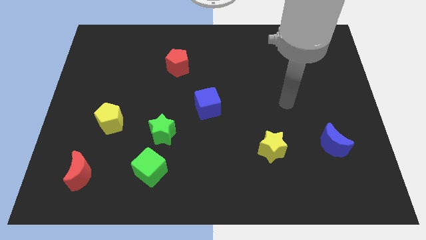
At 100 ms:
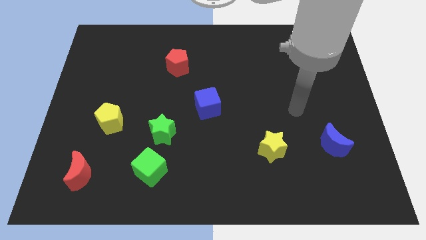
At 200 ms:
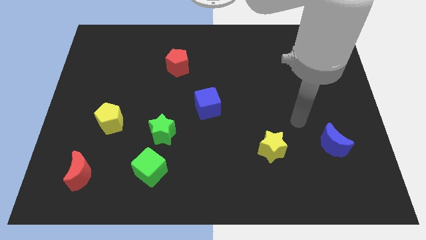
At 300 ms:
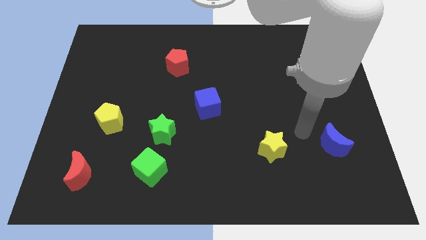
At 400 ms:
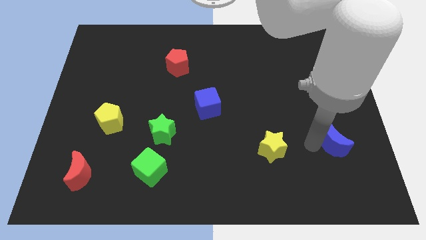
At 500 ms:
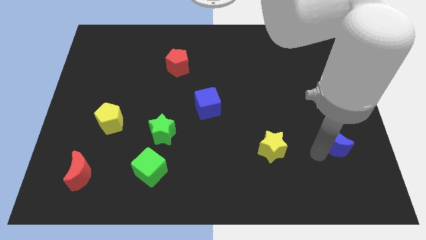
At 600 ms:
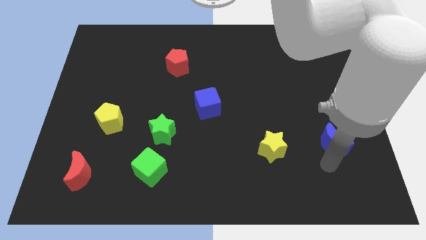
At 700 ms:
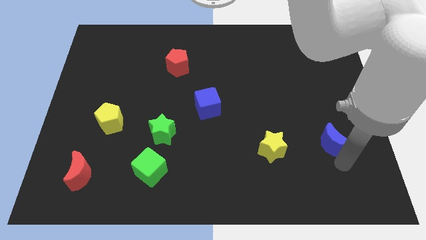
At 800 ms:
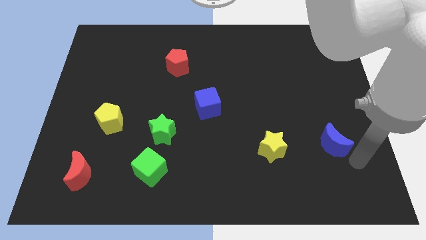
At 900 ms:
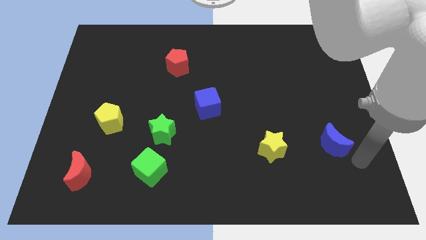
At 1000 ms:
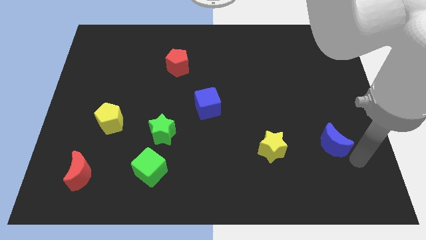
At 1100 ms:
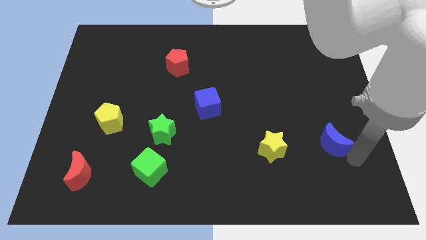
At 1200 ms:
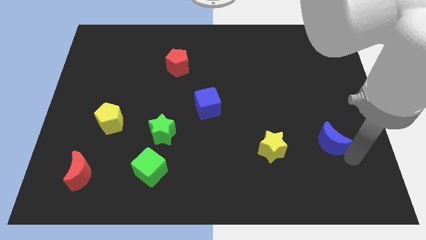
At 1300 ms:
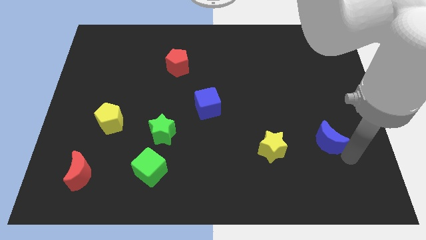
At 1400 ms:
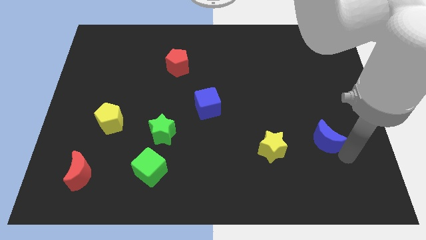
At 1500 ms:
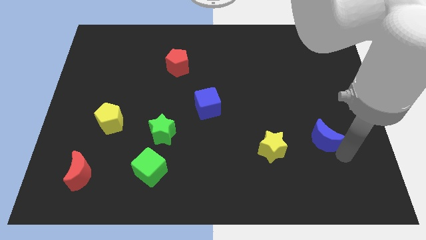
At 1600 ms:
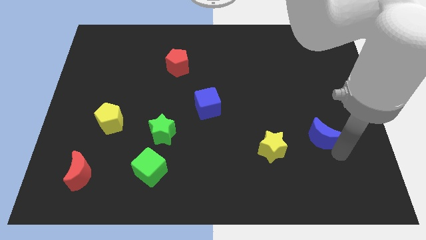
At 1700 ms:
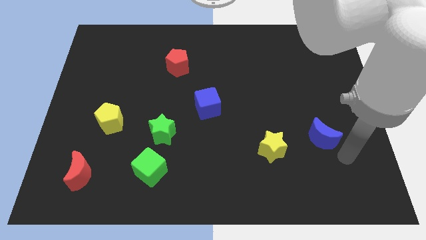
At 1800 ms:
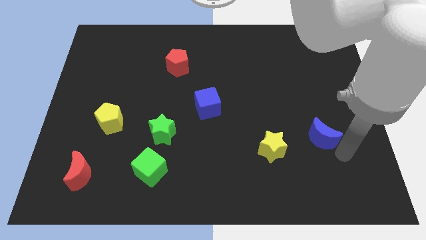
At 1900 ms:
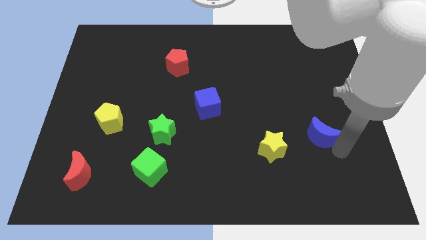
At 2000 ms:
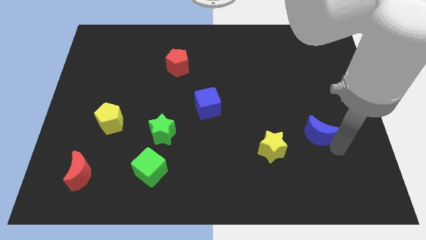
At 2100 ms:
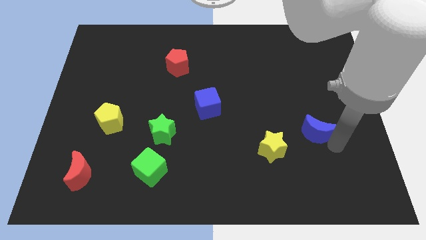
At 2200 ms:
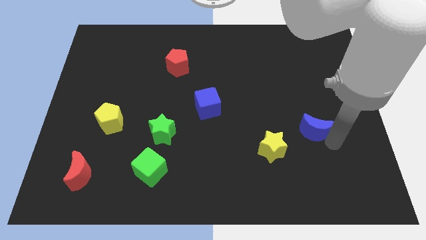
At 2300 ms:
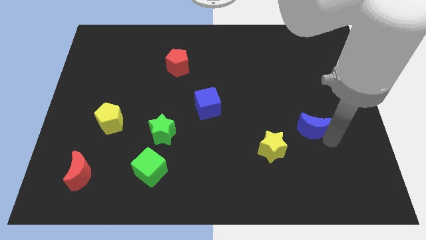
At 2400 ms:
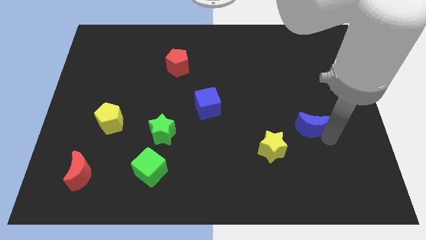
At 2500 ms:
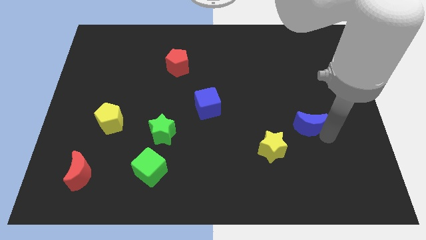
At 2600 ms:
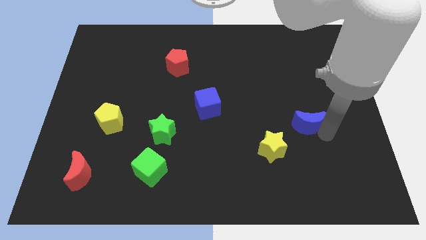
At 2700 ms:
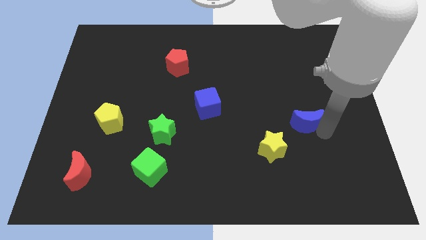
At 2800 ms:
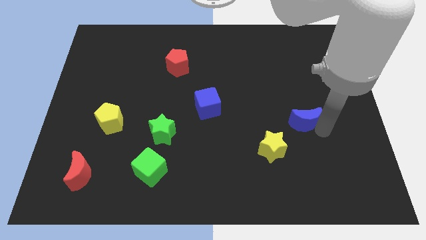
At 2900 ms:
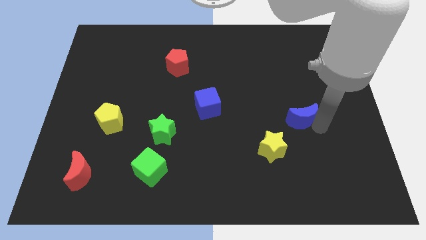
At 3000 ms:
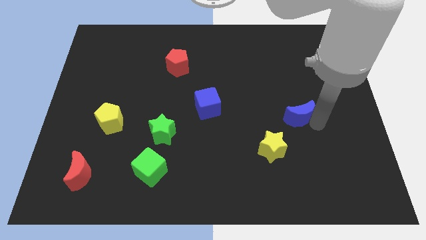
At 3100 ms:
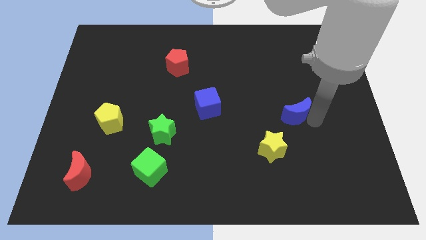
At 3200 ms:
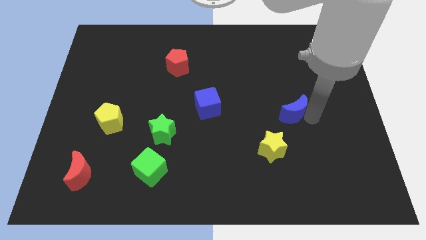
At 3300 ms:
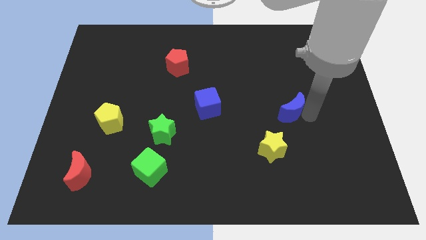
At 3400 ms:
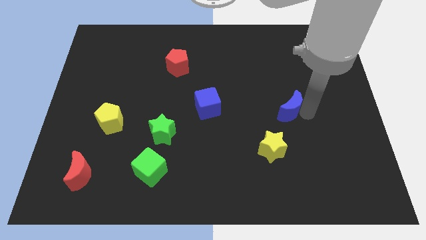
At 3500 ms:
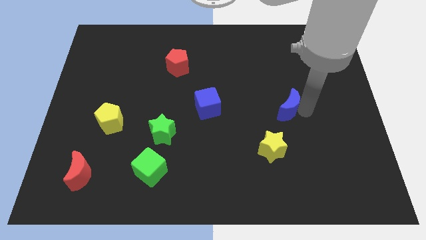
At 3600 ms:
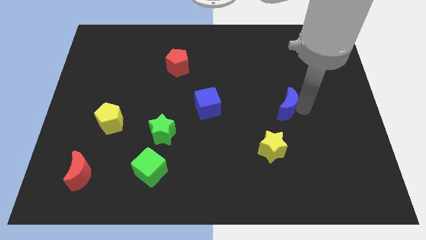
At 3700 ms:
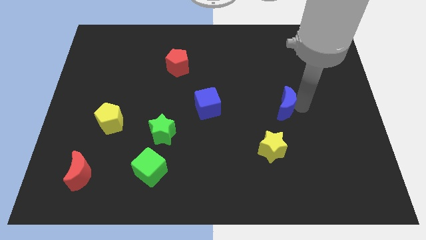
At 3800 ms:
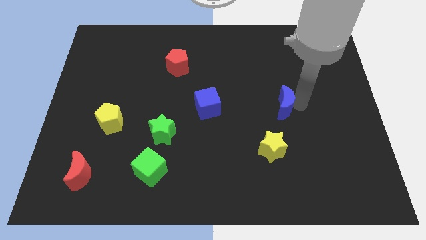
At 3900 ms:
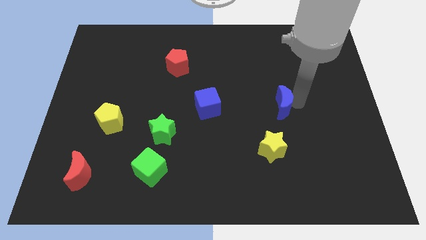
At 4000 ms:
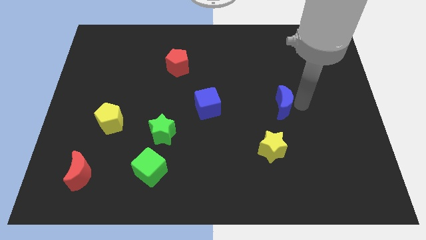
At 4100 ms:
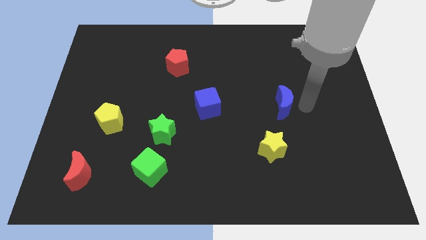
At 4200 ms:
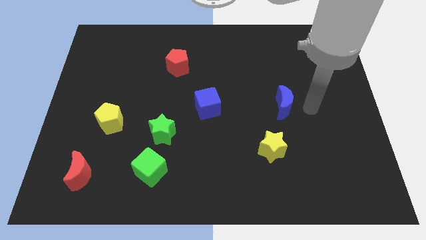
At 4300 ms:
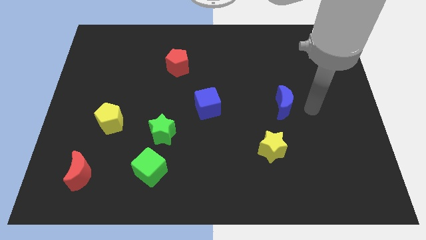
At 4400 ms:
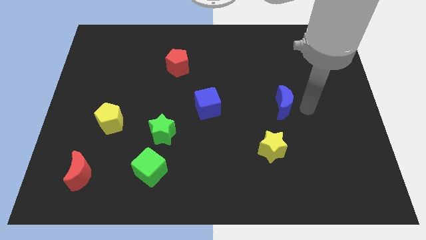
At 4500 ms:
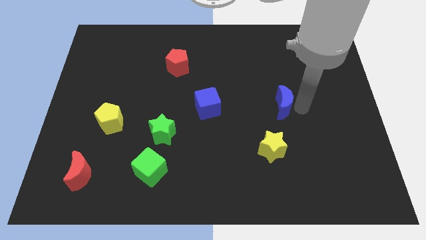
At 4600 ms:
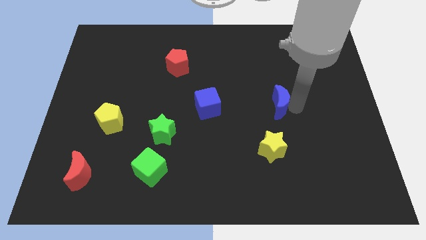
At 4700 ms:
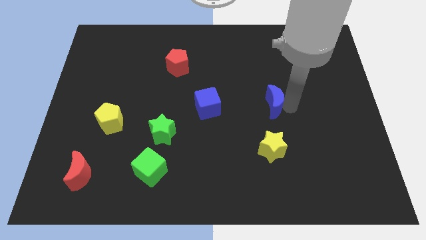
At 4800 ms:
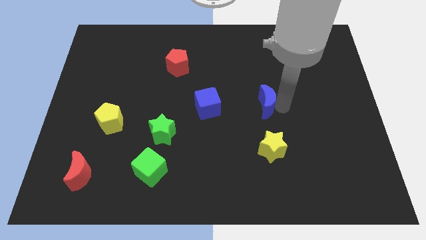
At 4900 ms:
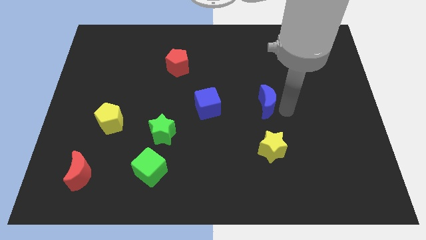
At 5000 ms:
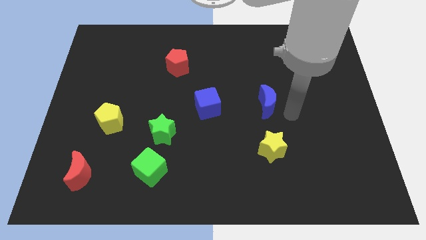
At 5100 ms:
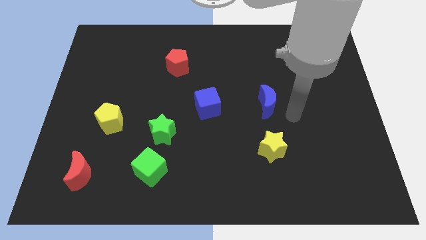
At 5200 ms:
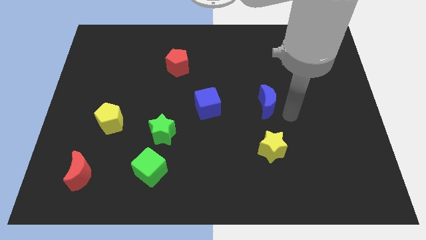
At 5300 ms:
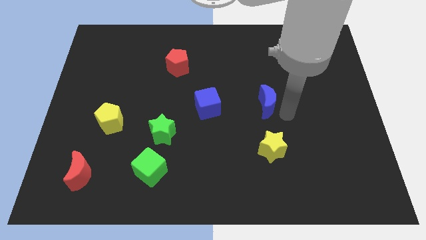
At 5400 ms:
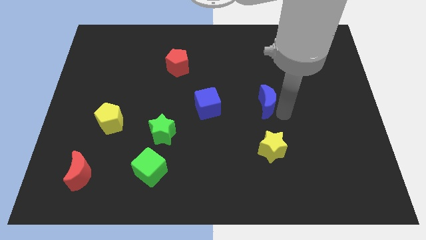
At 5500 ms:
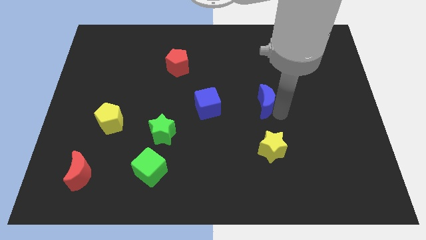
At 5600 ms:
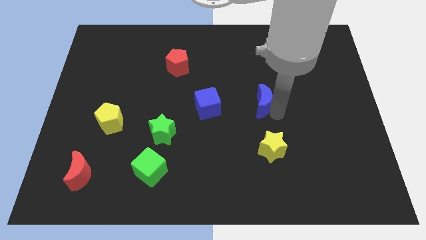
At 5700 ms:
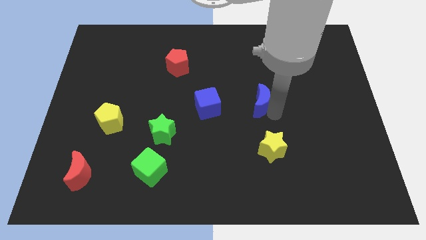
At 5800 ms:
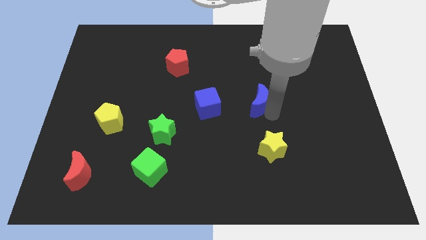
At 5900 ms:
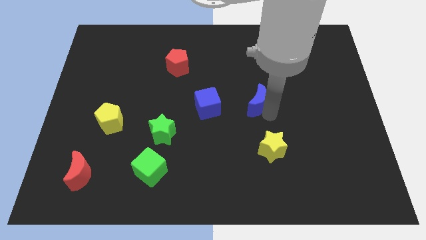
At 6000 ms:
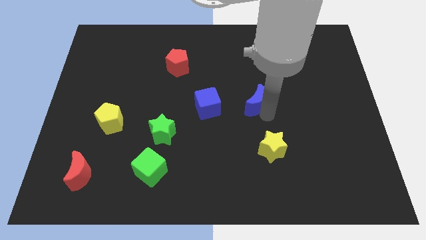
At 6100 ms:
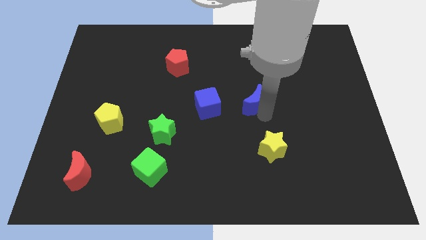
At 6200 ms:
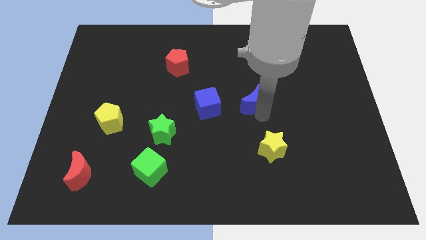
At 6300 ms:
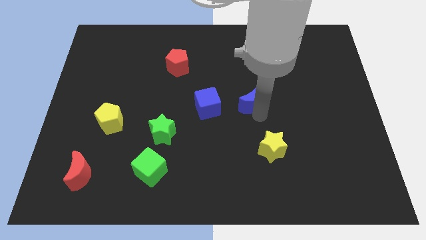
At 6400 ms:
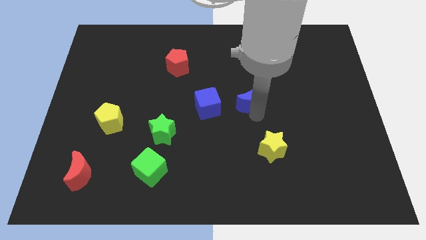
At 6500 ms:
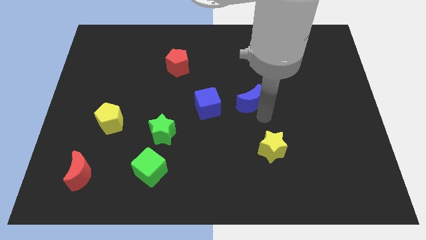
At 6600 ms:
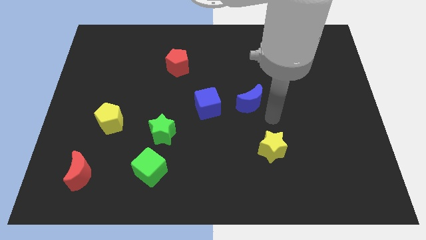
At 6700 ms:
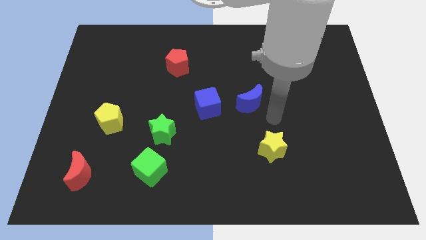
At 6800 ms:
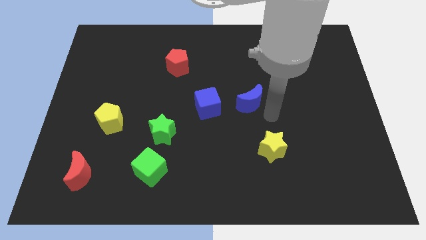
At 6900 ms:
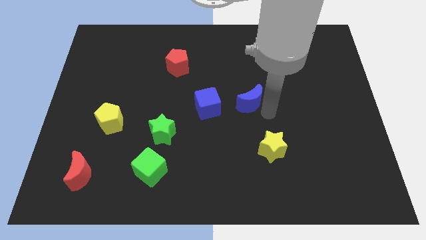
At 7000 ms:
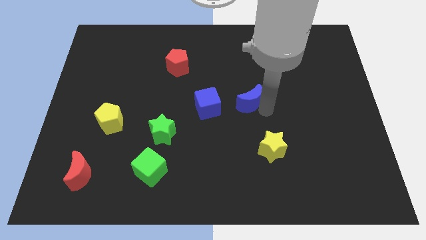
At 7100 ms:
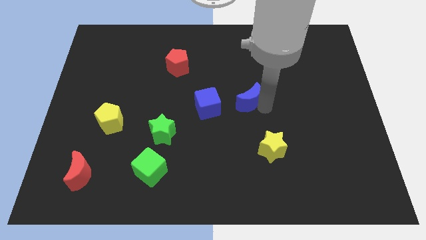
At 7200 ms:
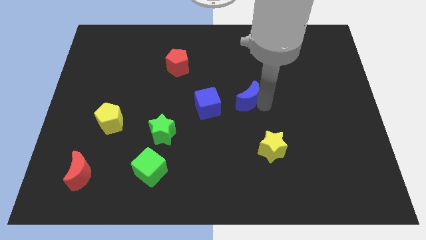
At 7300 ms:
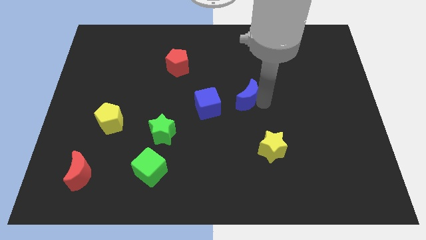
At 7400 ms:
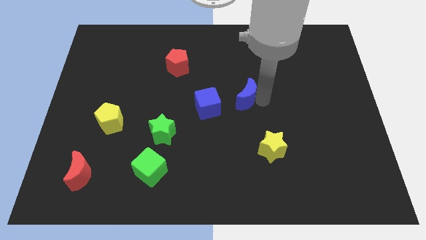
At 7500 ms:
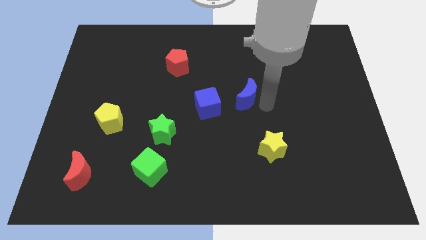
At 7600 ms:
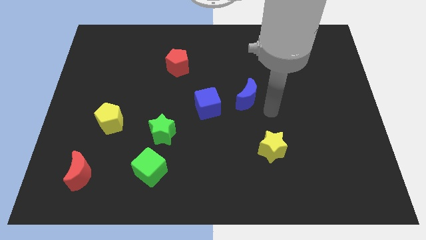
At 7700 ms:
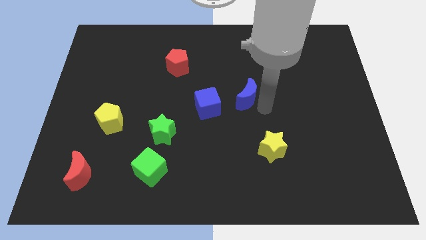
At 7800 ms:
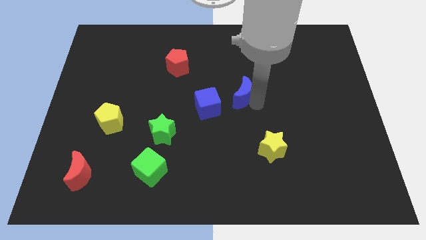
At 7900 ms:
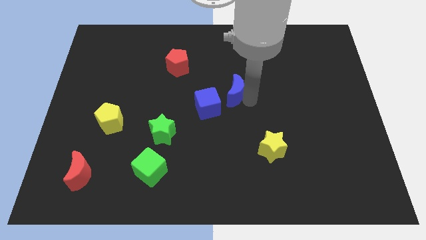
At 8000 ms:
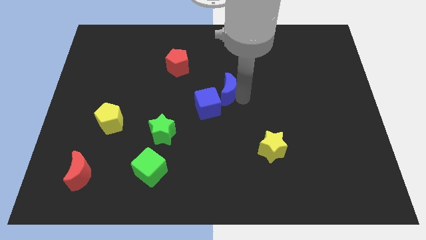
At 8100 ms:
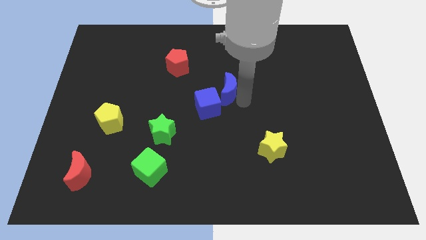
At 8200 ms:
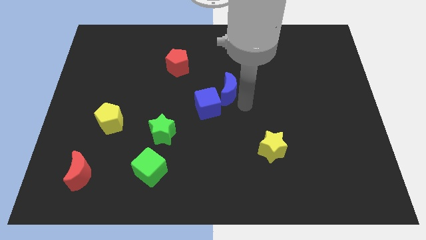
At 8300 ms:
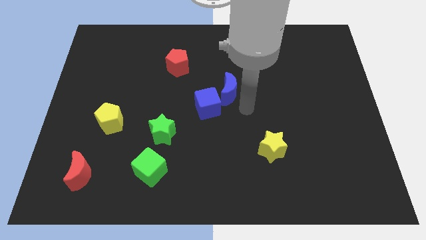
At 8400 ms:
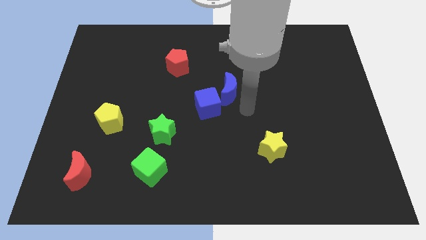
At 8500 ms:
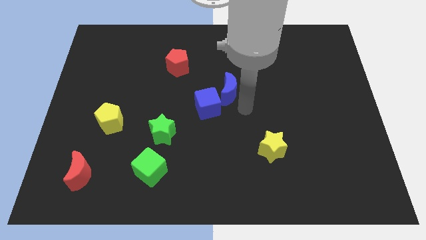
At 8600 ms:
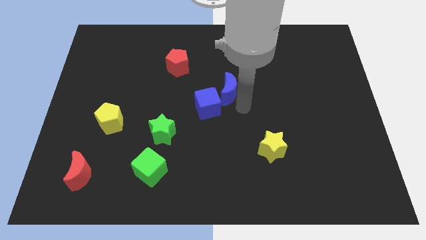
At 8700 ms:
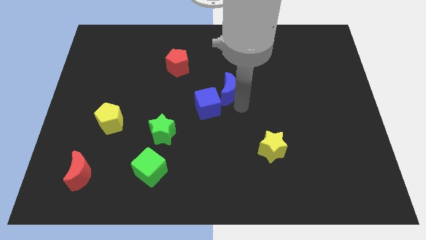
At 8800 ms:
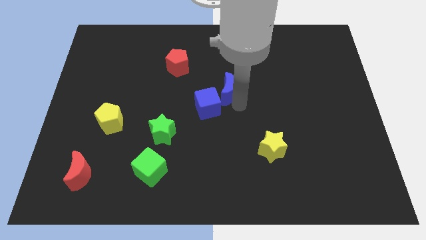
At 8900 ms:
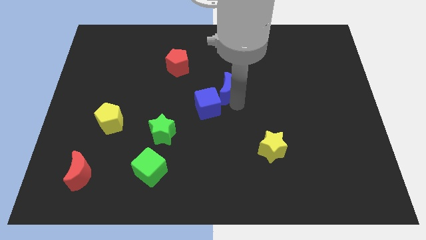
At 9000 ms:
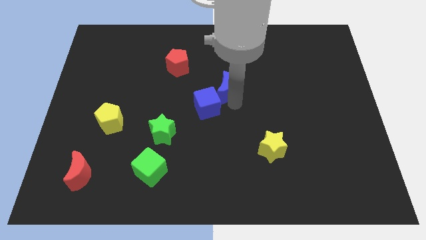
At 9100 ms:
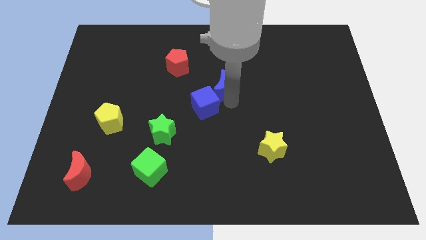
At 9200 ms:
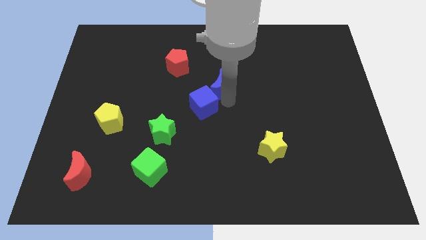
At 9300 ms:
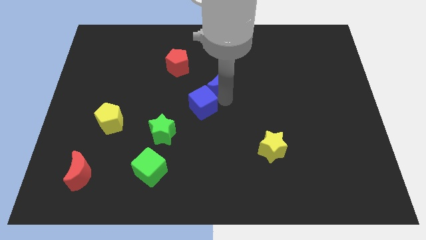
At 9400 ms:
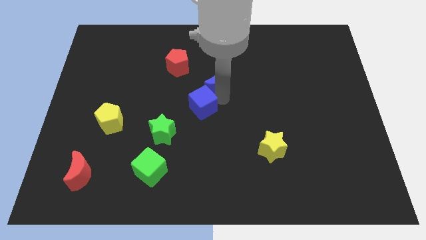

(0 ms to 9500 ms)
put the blue moon to the bottom right side of the red pentagon
